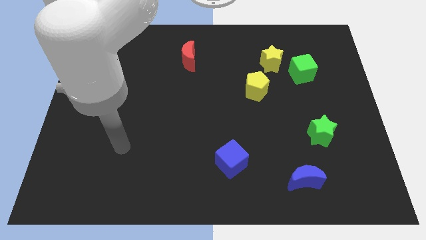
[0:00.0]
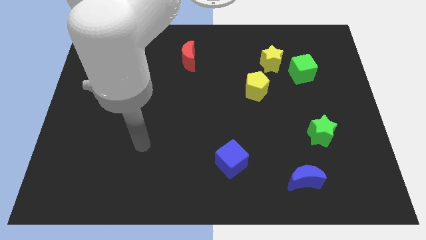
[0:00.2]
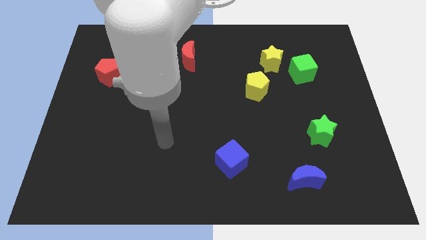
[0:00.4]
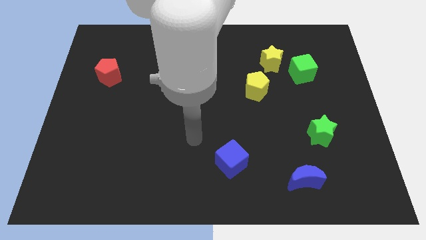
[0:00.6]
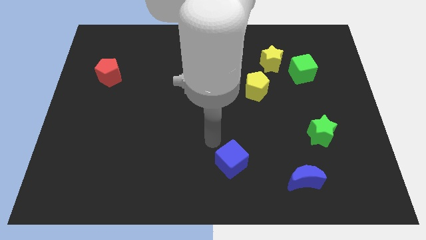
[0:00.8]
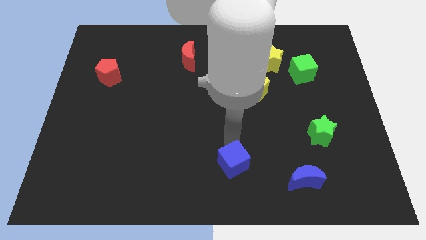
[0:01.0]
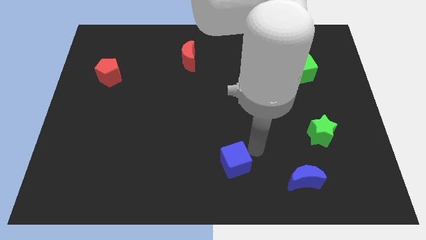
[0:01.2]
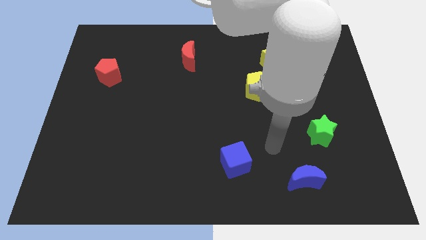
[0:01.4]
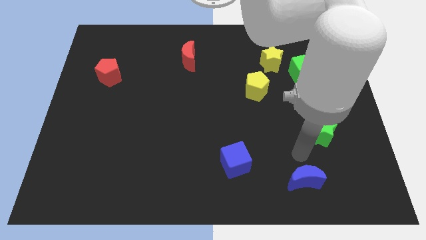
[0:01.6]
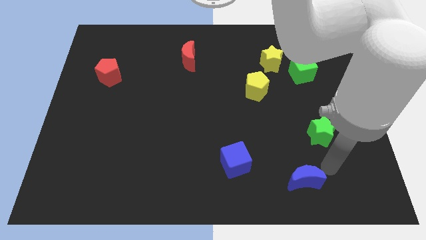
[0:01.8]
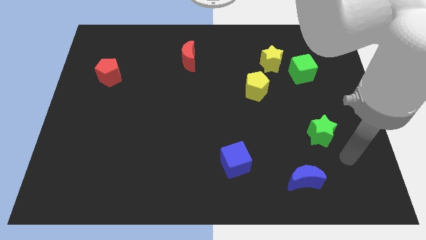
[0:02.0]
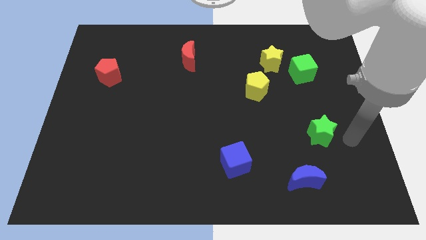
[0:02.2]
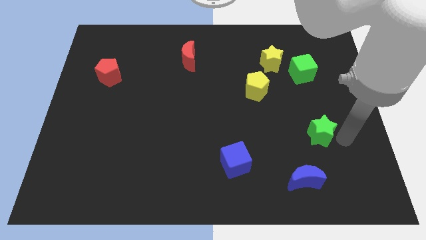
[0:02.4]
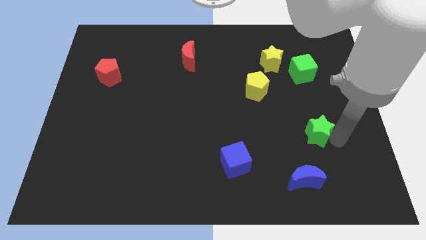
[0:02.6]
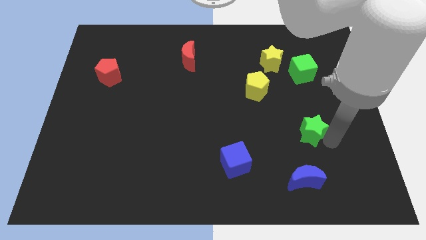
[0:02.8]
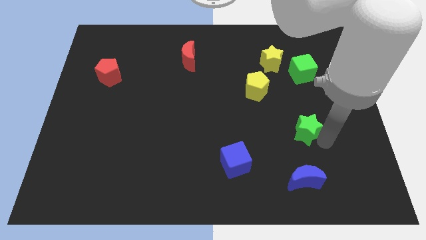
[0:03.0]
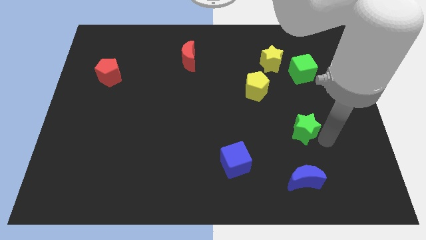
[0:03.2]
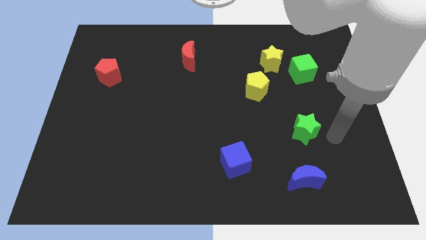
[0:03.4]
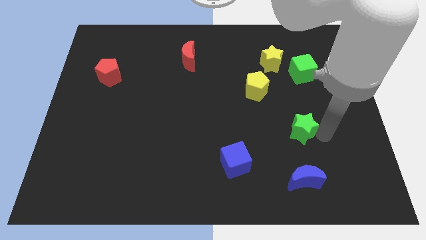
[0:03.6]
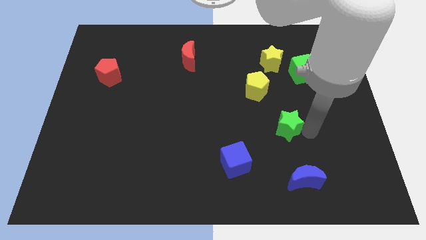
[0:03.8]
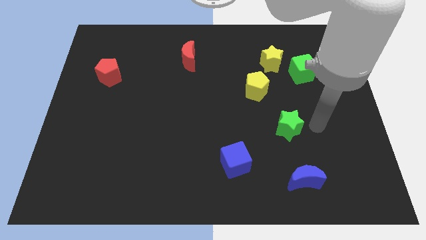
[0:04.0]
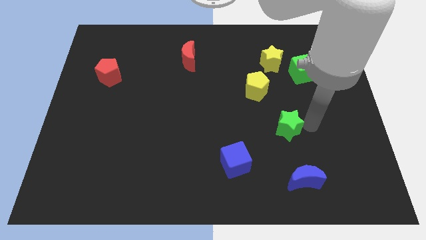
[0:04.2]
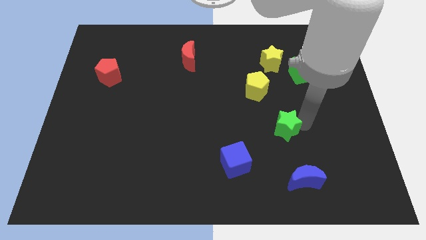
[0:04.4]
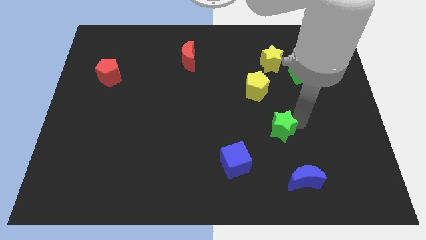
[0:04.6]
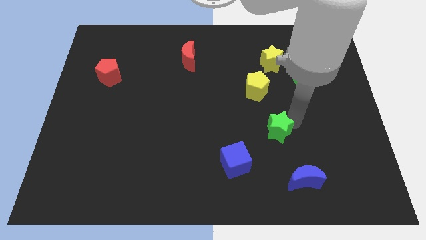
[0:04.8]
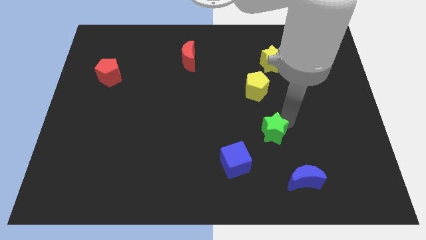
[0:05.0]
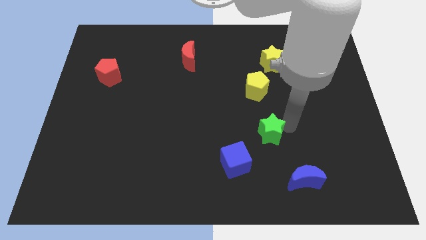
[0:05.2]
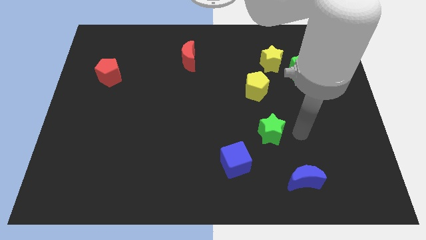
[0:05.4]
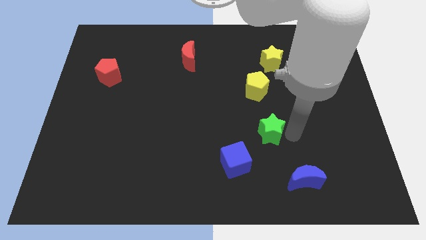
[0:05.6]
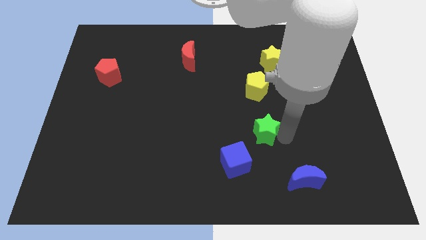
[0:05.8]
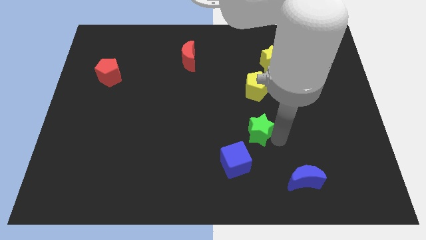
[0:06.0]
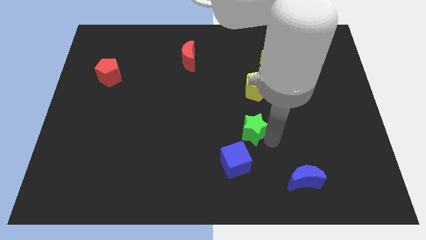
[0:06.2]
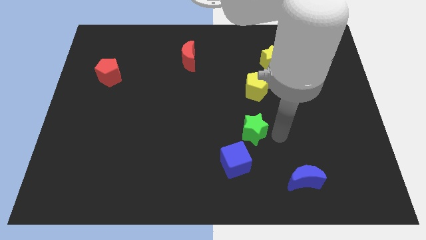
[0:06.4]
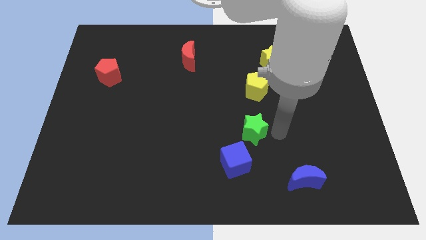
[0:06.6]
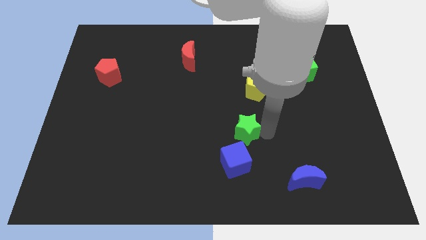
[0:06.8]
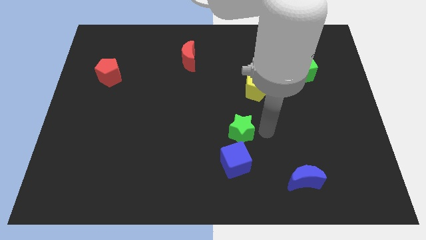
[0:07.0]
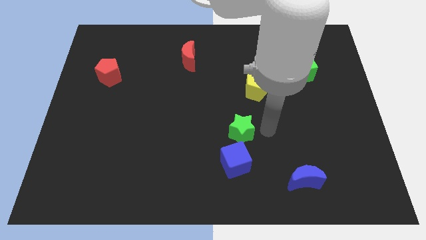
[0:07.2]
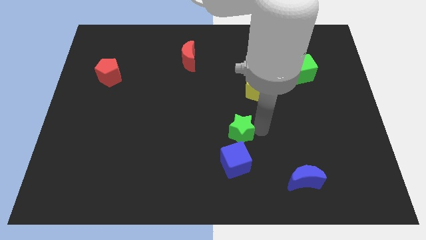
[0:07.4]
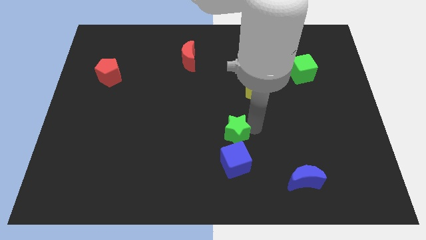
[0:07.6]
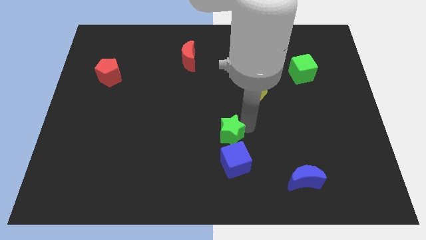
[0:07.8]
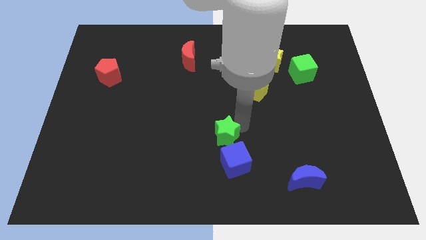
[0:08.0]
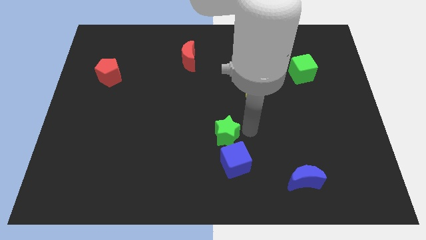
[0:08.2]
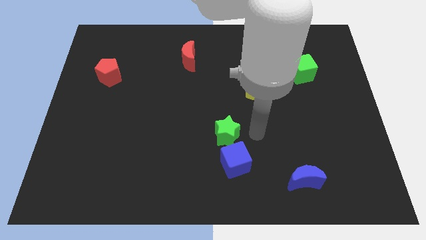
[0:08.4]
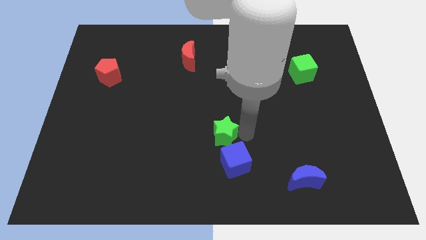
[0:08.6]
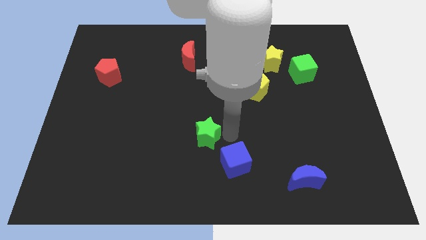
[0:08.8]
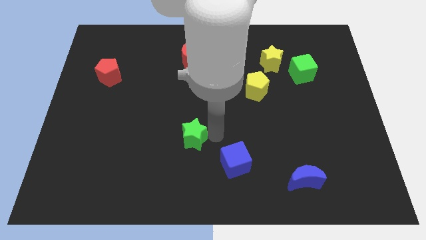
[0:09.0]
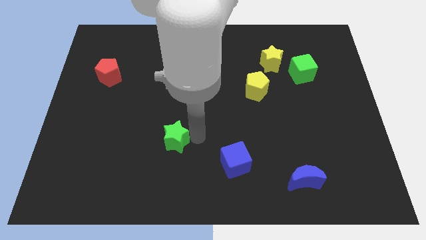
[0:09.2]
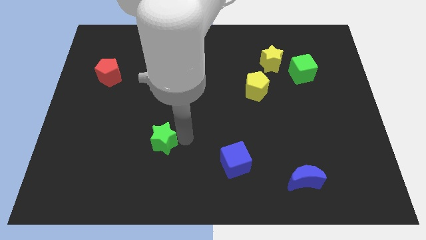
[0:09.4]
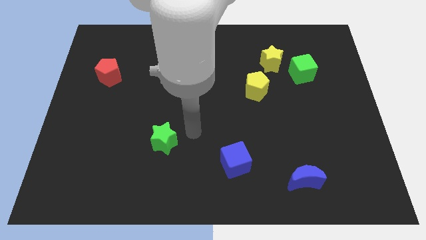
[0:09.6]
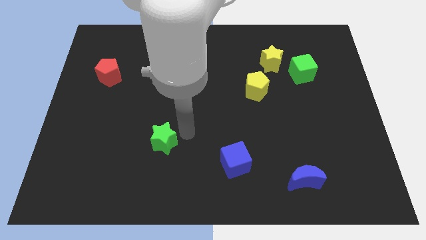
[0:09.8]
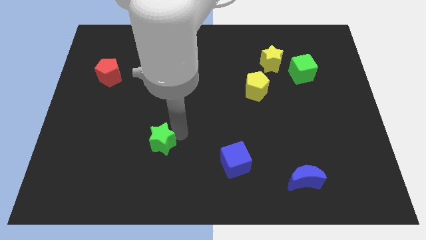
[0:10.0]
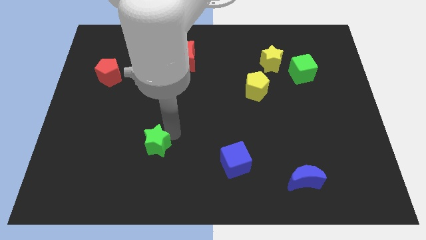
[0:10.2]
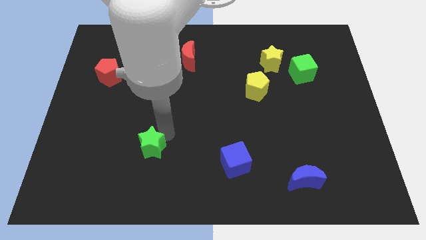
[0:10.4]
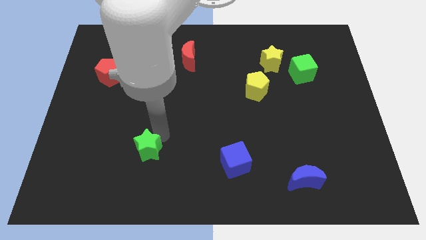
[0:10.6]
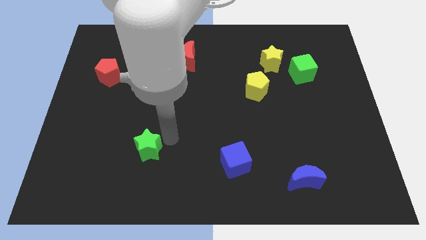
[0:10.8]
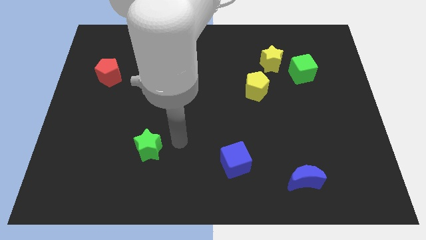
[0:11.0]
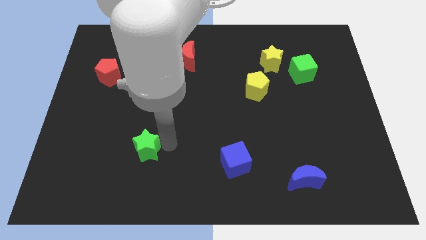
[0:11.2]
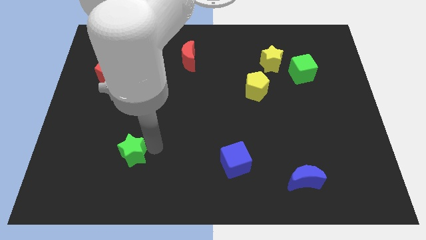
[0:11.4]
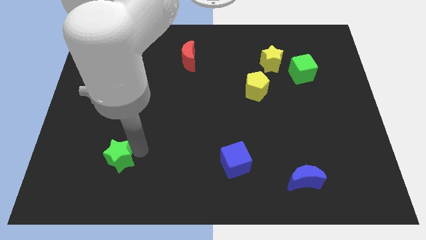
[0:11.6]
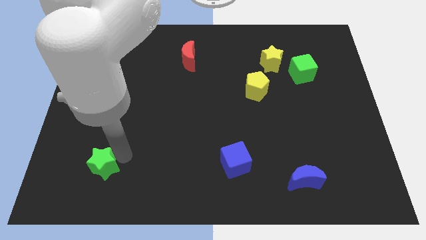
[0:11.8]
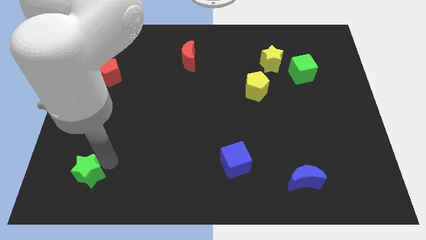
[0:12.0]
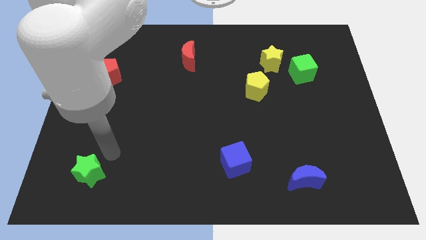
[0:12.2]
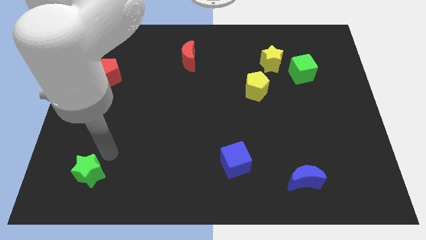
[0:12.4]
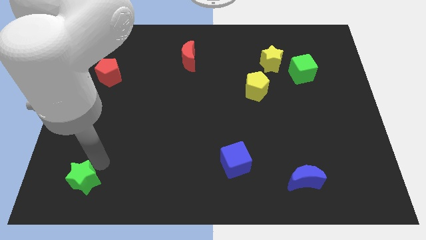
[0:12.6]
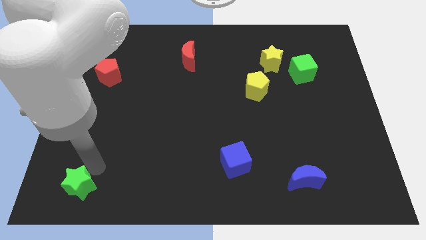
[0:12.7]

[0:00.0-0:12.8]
put the green star to the lower left corner
